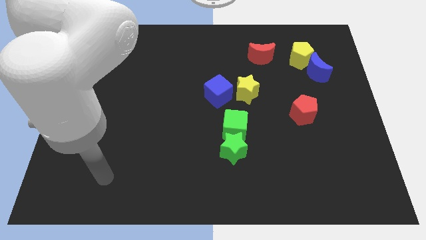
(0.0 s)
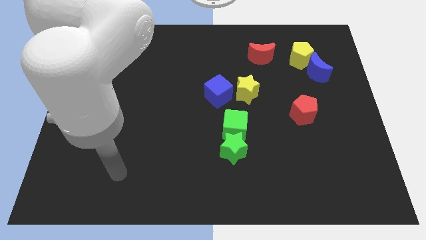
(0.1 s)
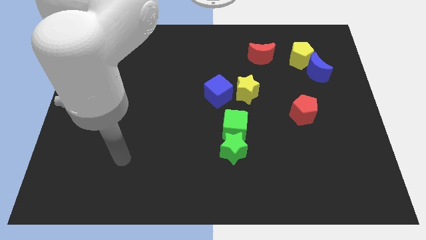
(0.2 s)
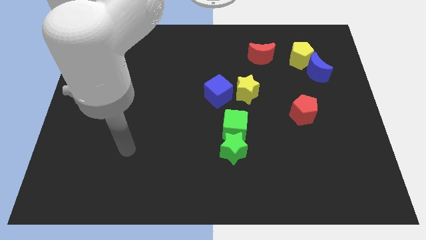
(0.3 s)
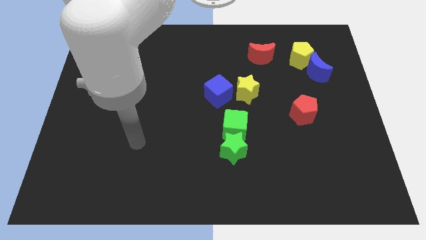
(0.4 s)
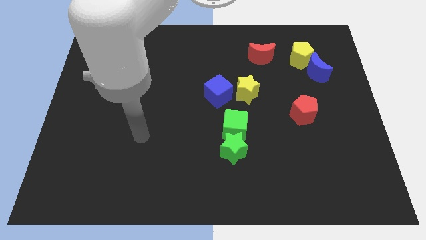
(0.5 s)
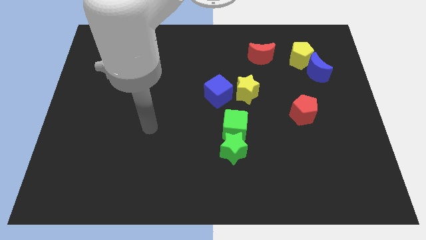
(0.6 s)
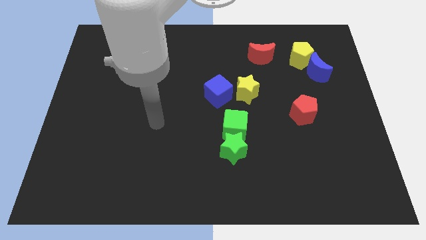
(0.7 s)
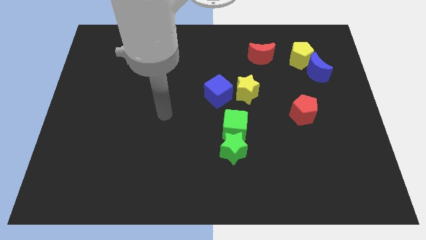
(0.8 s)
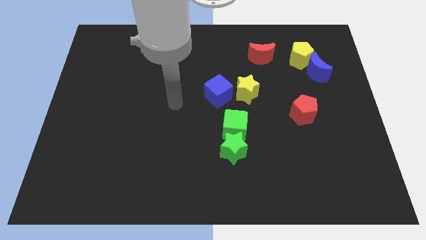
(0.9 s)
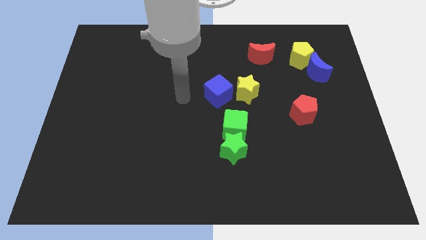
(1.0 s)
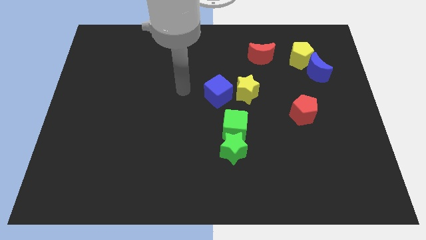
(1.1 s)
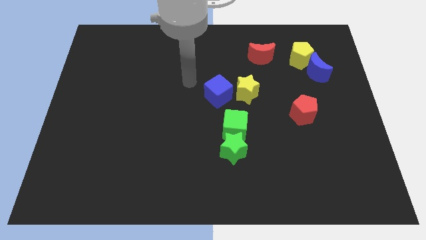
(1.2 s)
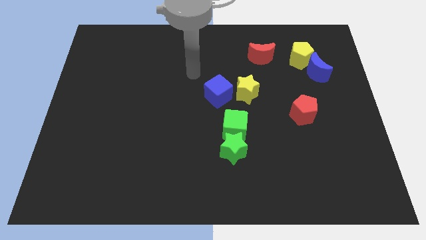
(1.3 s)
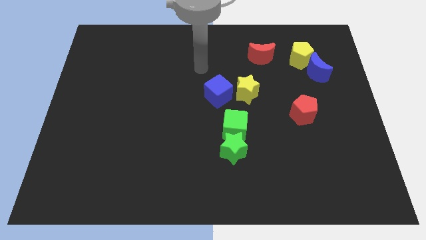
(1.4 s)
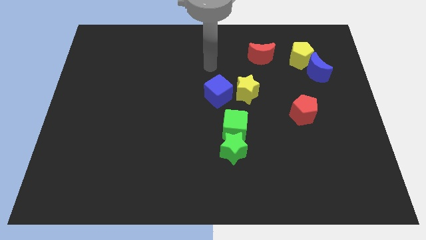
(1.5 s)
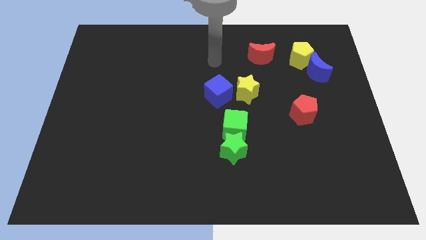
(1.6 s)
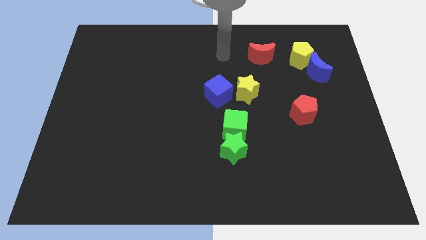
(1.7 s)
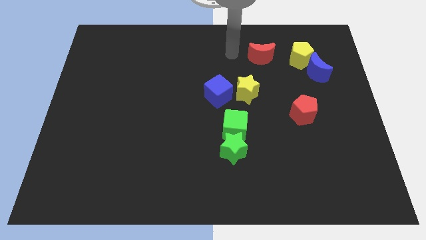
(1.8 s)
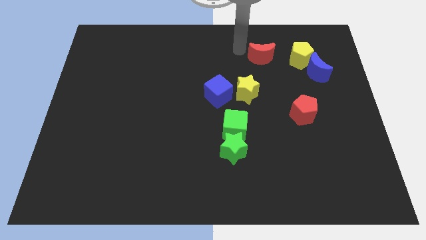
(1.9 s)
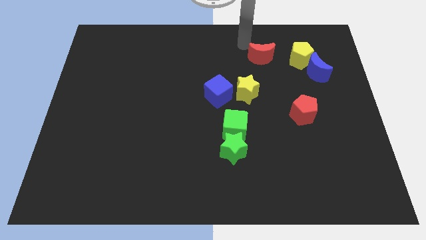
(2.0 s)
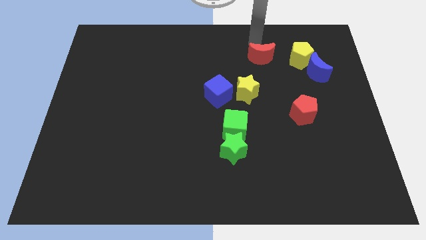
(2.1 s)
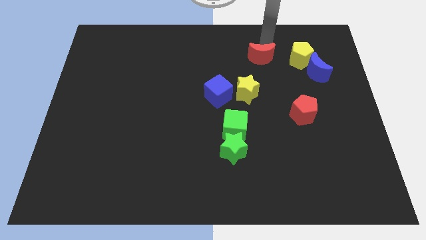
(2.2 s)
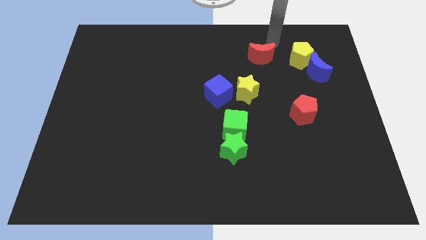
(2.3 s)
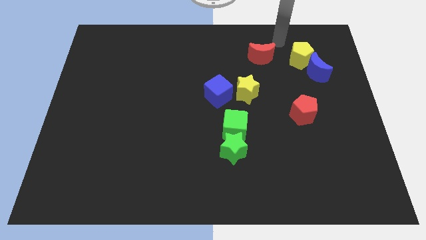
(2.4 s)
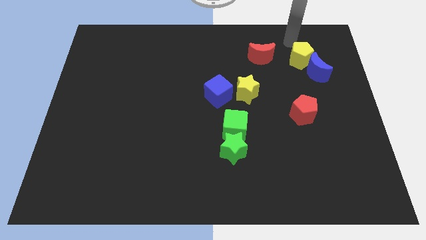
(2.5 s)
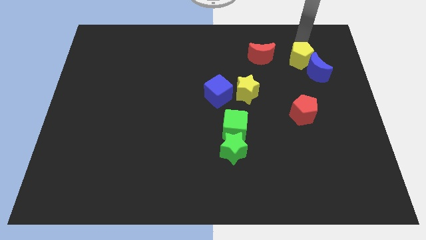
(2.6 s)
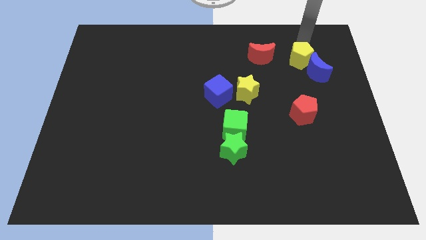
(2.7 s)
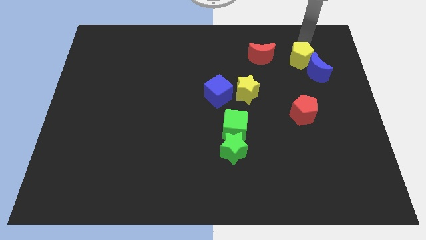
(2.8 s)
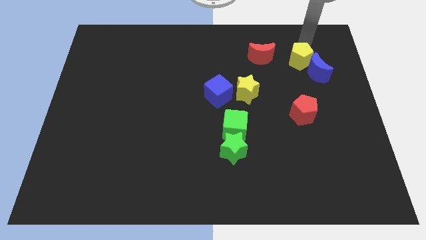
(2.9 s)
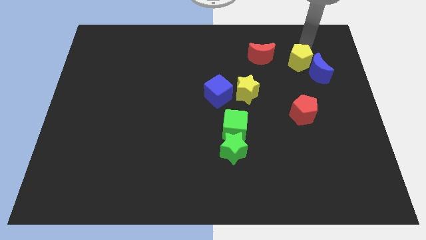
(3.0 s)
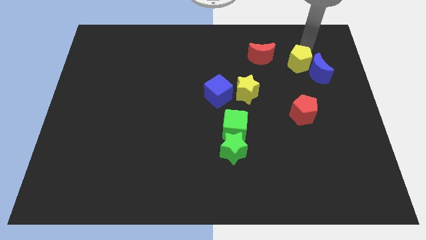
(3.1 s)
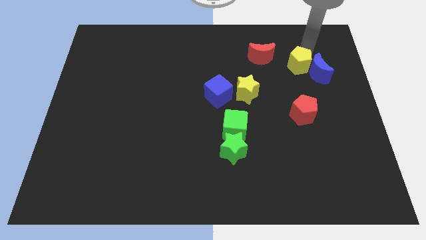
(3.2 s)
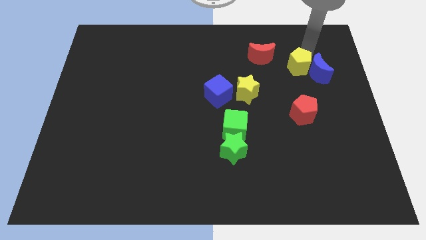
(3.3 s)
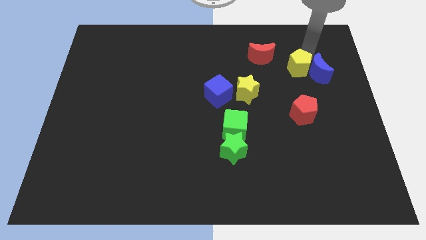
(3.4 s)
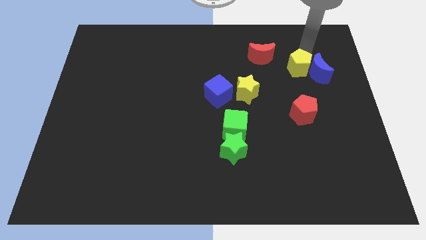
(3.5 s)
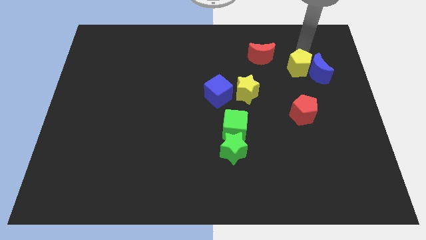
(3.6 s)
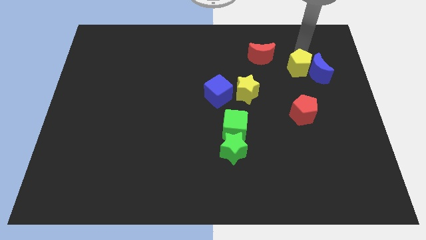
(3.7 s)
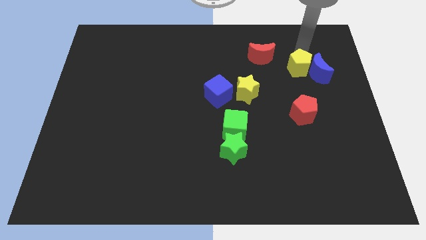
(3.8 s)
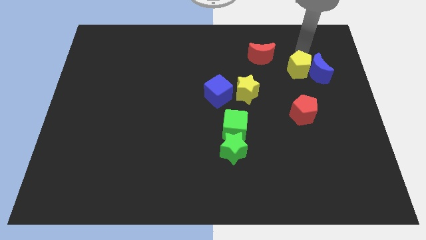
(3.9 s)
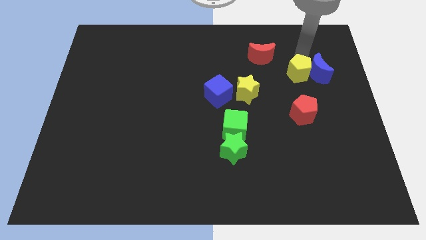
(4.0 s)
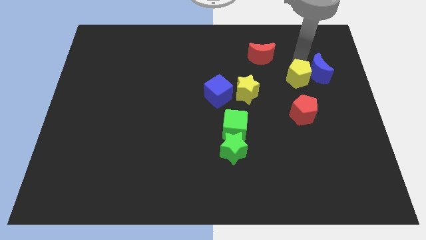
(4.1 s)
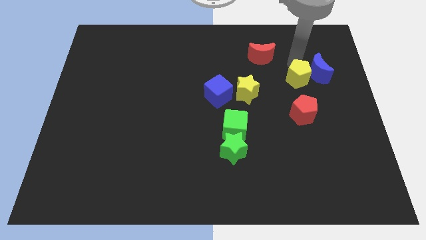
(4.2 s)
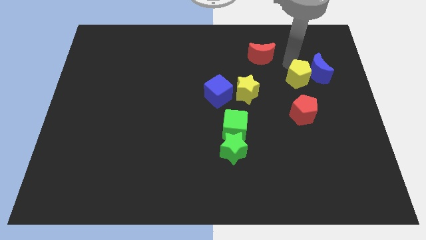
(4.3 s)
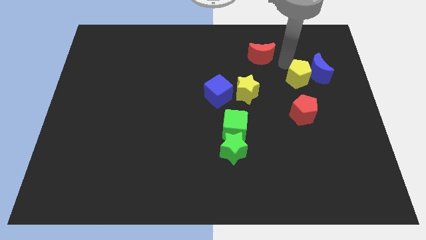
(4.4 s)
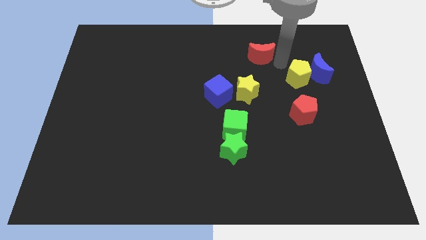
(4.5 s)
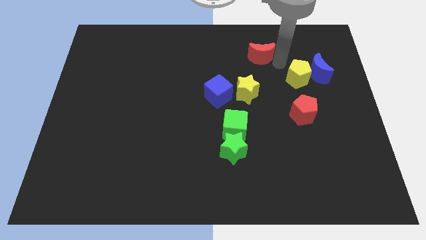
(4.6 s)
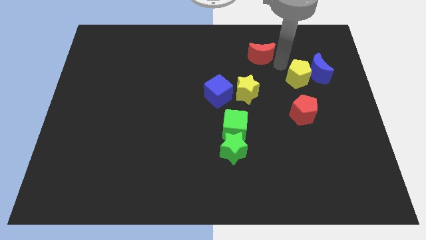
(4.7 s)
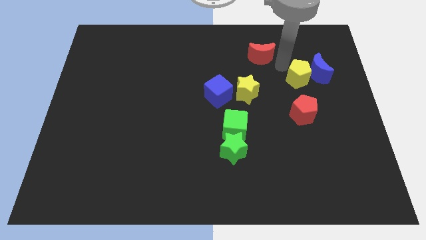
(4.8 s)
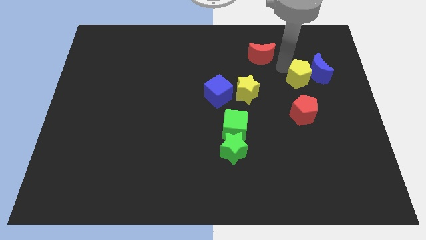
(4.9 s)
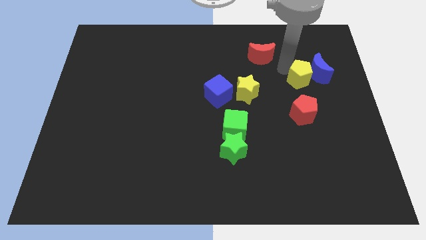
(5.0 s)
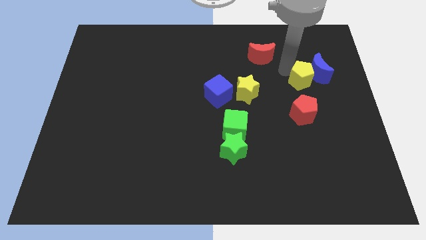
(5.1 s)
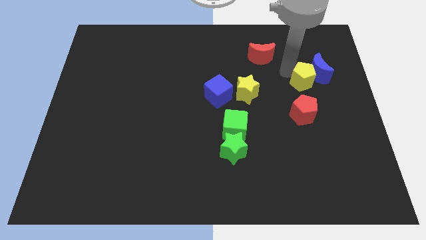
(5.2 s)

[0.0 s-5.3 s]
move the yellow pentagon to the bottom side of the blue moon
